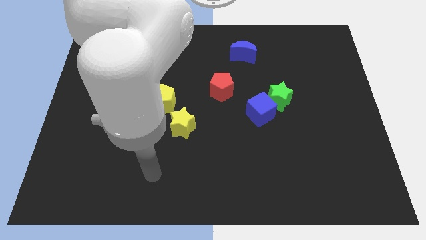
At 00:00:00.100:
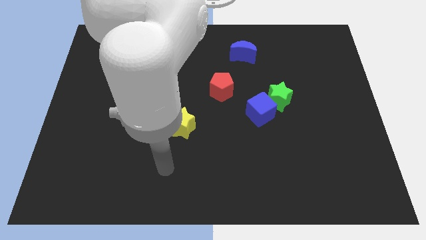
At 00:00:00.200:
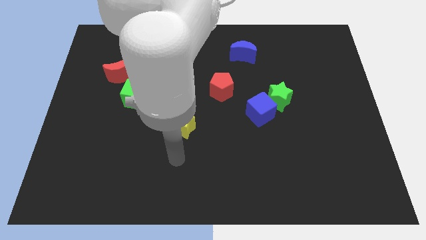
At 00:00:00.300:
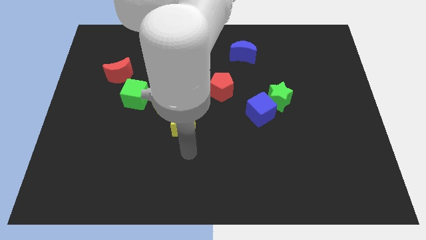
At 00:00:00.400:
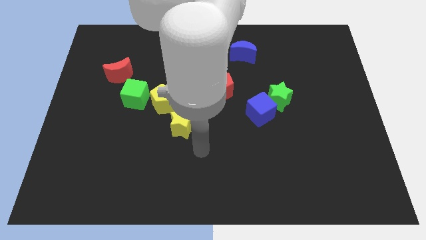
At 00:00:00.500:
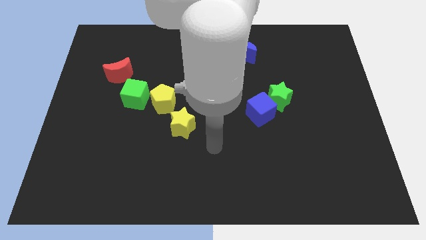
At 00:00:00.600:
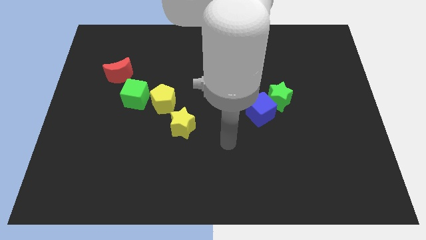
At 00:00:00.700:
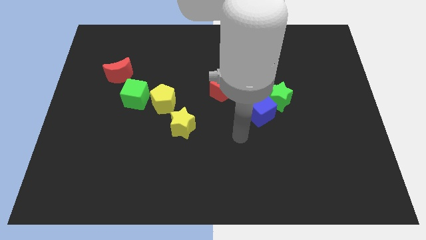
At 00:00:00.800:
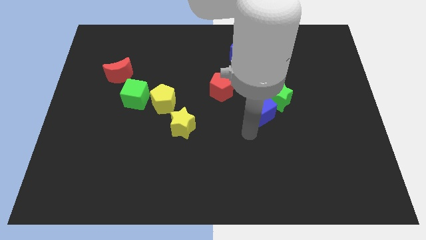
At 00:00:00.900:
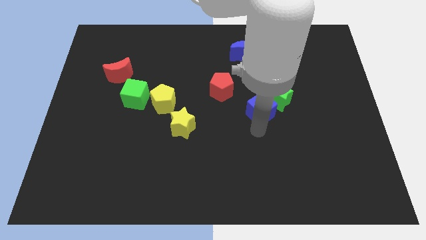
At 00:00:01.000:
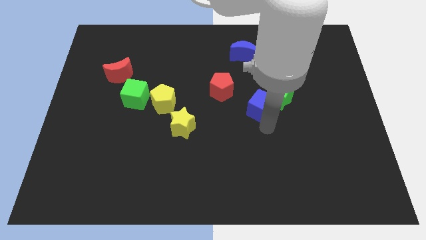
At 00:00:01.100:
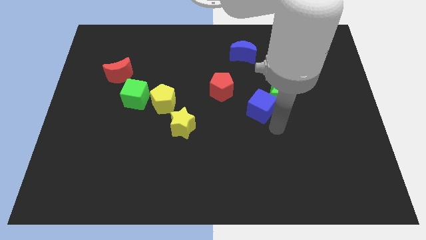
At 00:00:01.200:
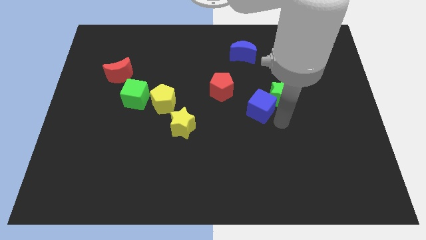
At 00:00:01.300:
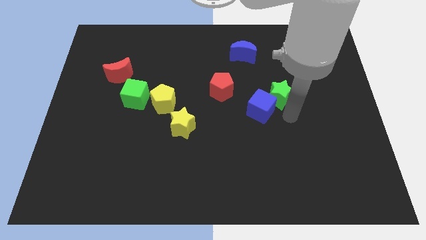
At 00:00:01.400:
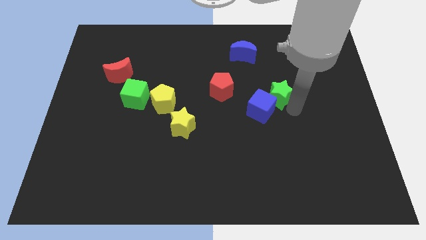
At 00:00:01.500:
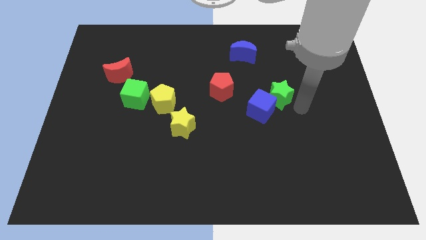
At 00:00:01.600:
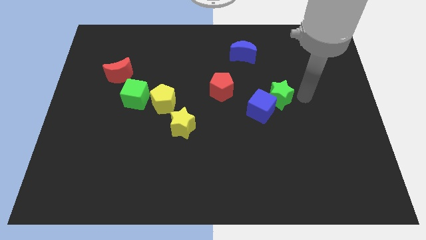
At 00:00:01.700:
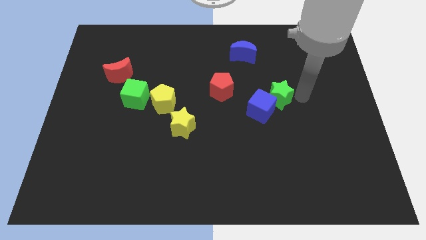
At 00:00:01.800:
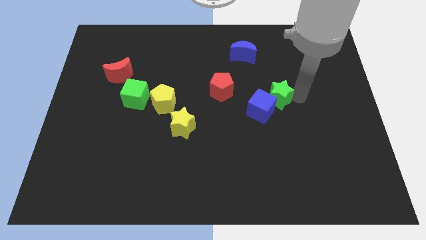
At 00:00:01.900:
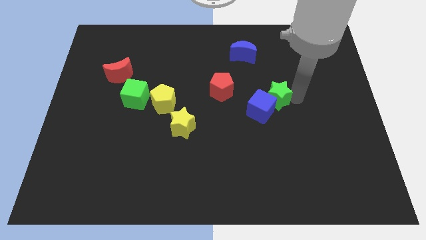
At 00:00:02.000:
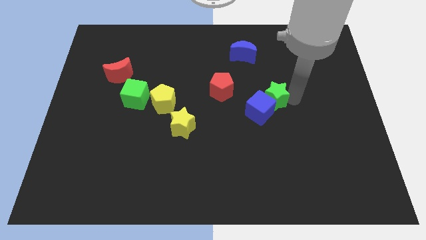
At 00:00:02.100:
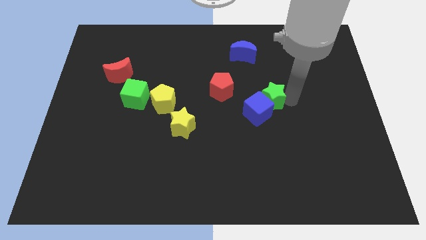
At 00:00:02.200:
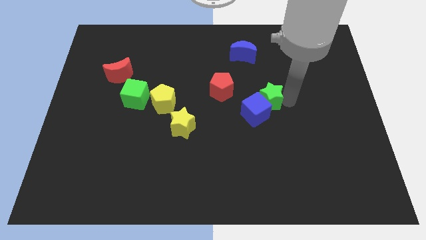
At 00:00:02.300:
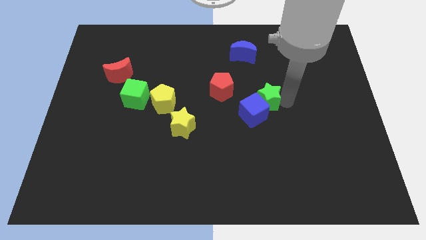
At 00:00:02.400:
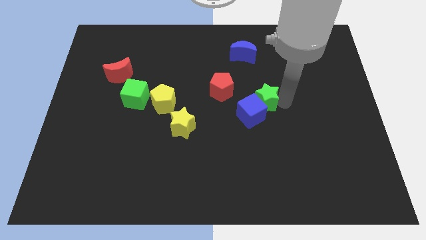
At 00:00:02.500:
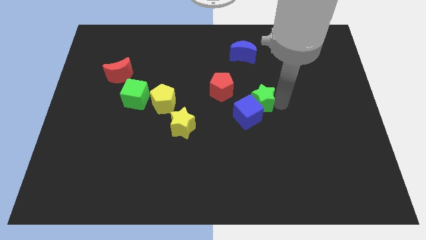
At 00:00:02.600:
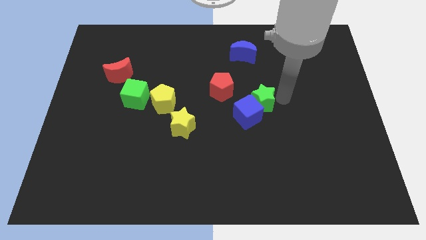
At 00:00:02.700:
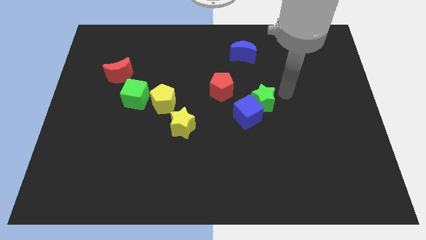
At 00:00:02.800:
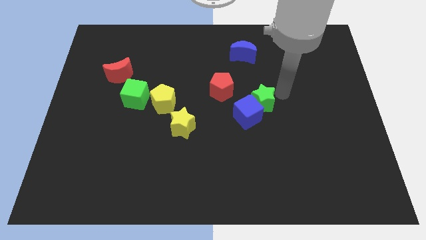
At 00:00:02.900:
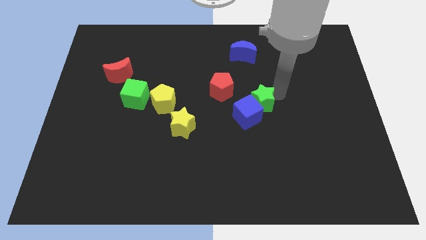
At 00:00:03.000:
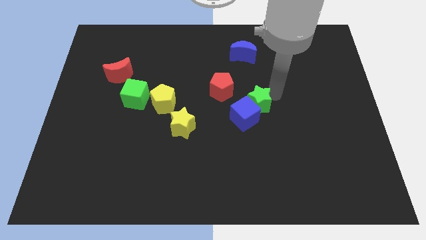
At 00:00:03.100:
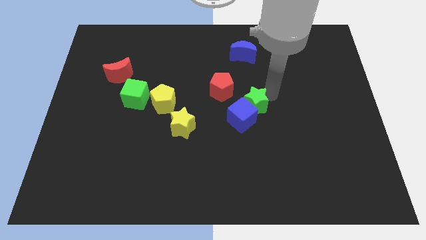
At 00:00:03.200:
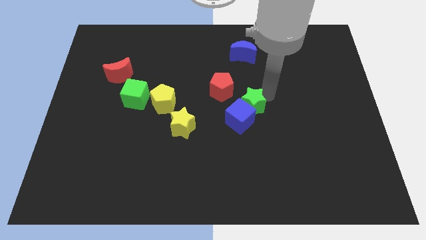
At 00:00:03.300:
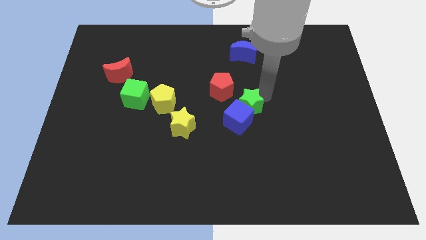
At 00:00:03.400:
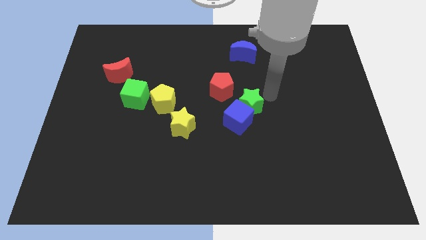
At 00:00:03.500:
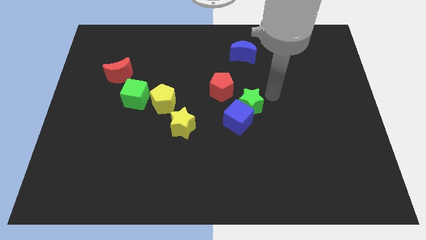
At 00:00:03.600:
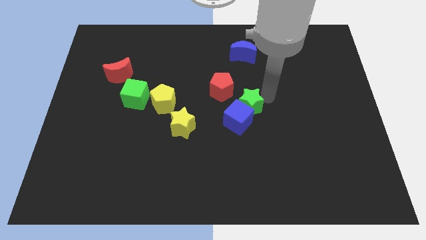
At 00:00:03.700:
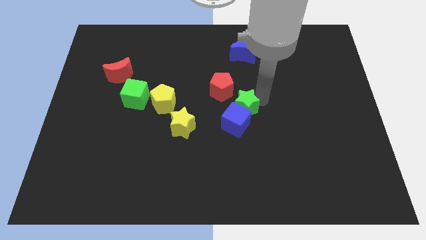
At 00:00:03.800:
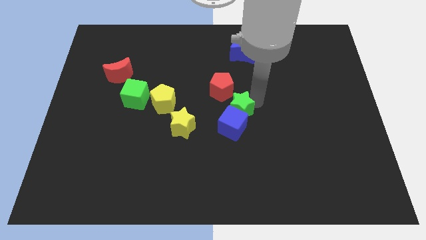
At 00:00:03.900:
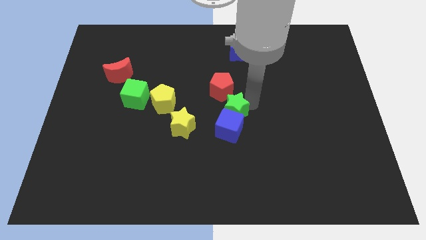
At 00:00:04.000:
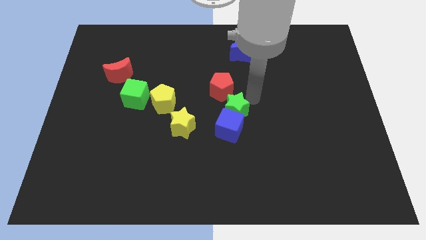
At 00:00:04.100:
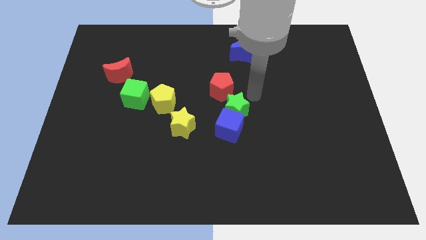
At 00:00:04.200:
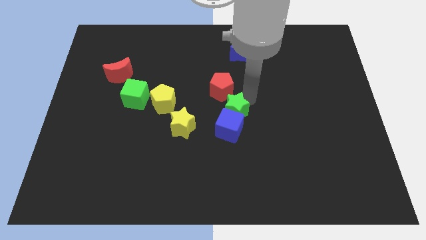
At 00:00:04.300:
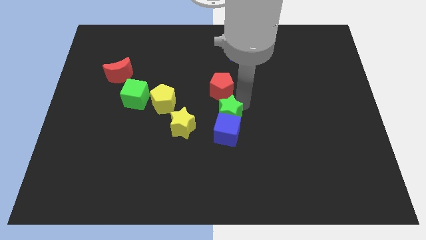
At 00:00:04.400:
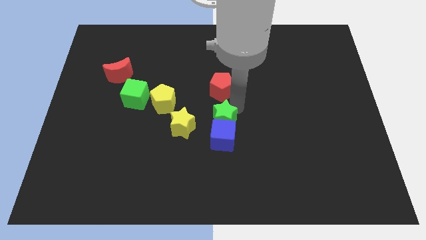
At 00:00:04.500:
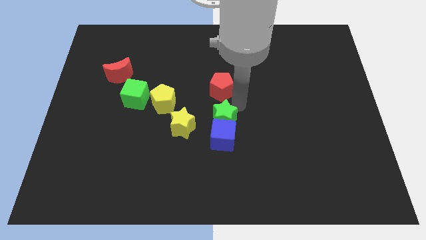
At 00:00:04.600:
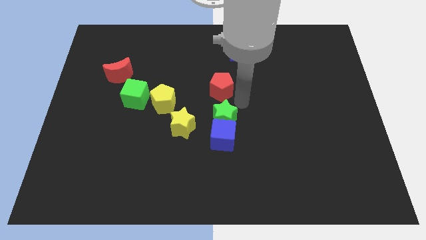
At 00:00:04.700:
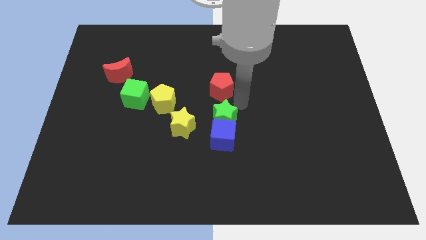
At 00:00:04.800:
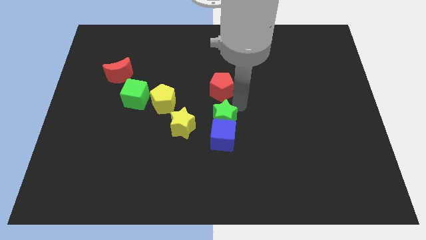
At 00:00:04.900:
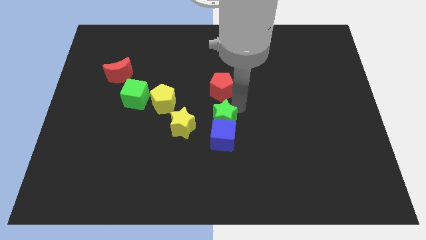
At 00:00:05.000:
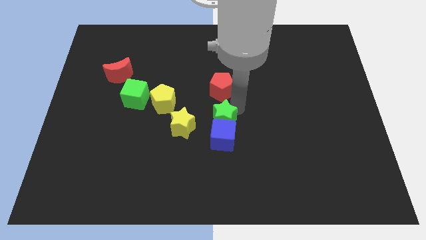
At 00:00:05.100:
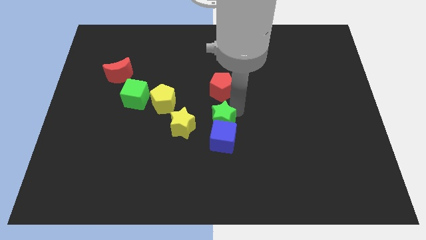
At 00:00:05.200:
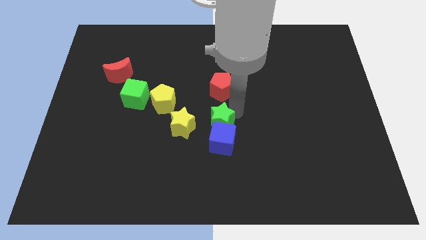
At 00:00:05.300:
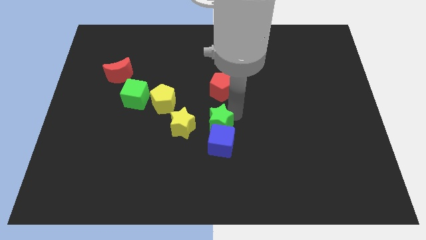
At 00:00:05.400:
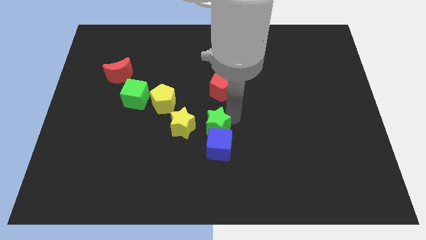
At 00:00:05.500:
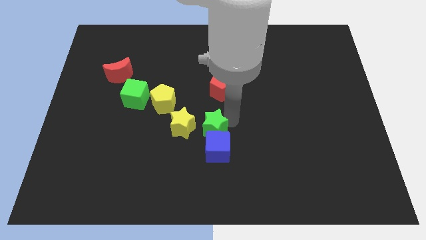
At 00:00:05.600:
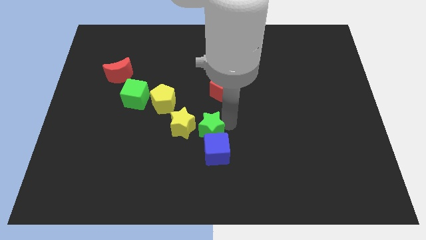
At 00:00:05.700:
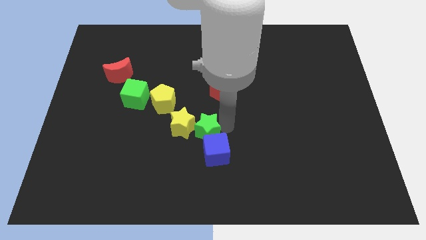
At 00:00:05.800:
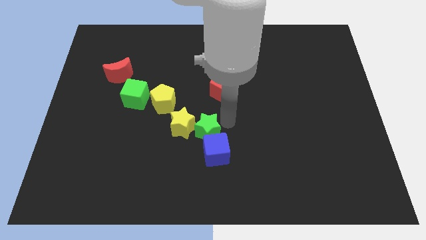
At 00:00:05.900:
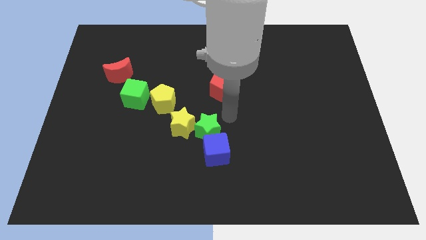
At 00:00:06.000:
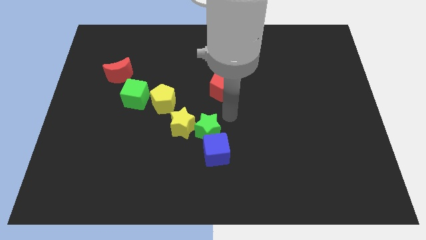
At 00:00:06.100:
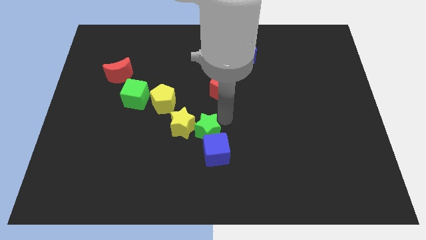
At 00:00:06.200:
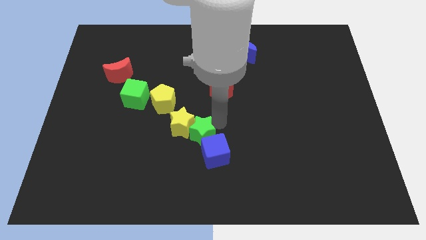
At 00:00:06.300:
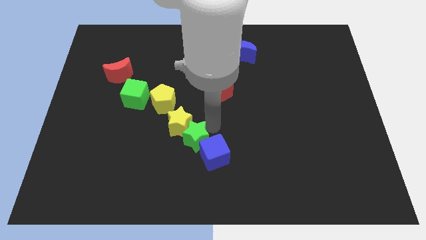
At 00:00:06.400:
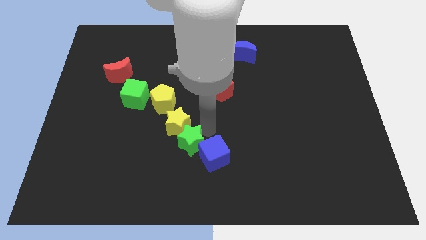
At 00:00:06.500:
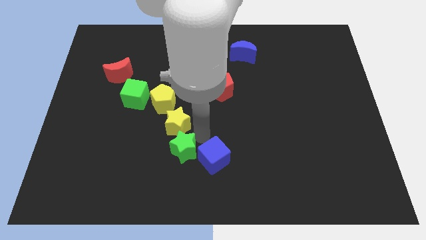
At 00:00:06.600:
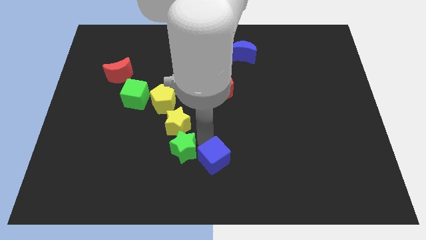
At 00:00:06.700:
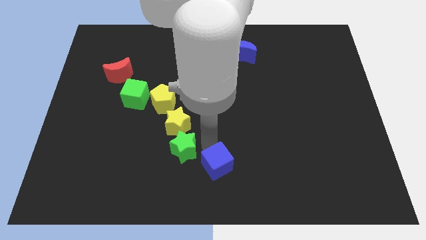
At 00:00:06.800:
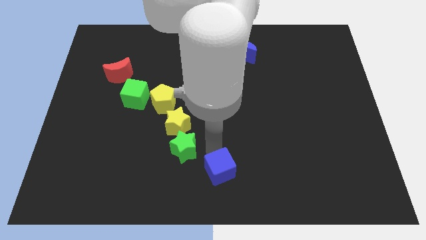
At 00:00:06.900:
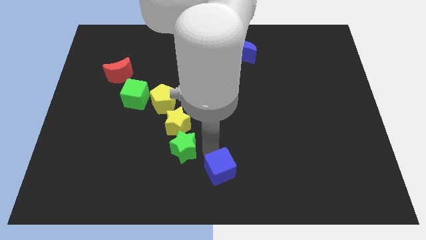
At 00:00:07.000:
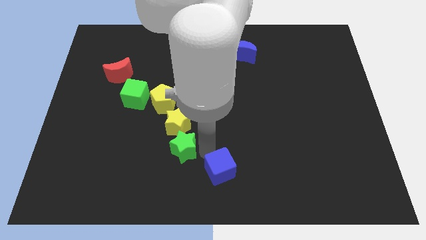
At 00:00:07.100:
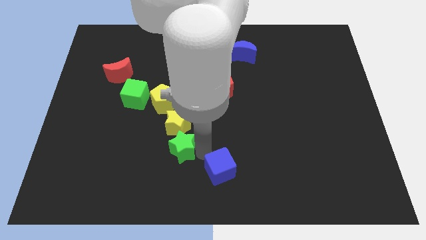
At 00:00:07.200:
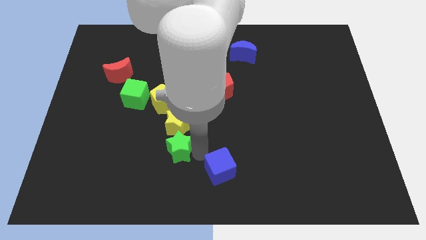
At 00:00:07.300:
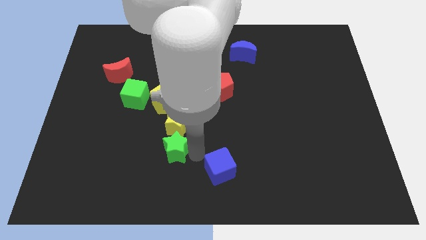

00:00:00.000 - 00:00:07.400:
slide the green star diagonally down and to the left of the yellow star

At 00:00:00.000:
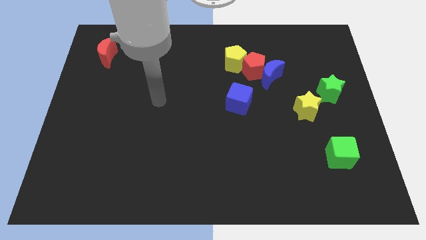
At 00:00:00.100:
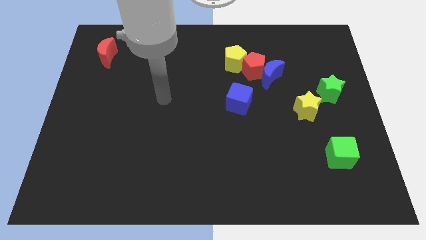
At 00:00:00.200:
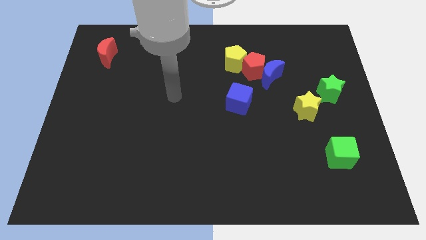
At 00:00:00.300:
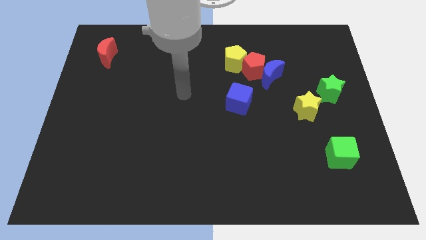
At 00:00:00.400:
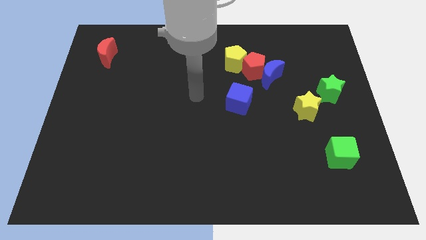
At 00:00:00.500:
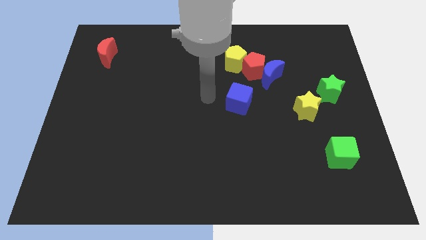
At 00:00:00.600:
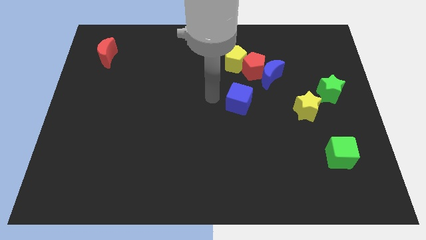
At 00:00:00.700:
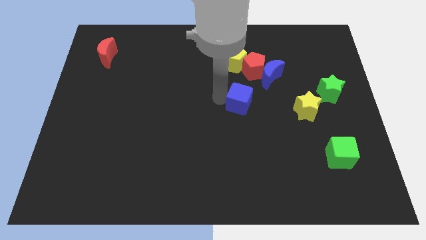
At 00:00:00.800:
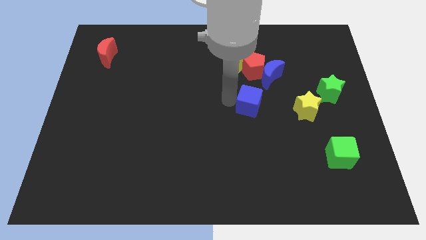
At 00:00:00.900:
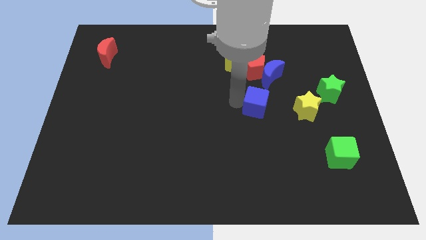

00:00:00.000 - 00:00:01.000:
move the blue cube to the bottom of the blue moon
